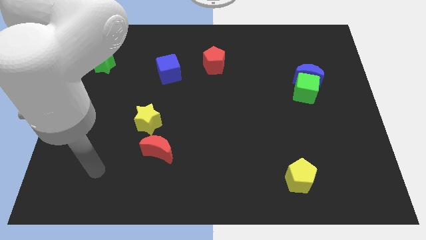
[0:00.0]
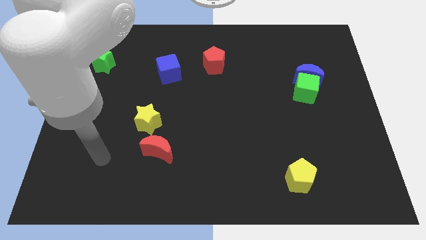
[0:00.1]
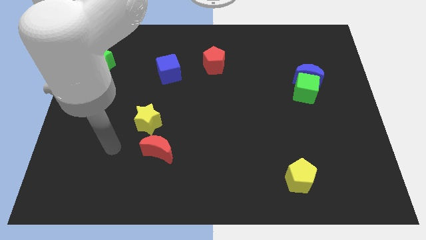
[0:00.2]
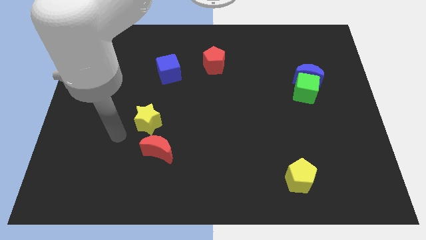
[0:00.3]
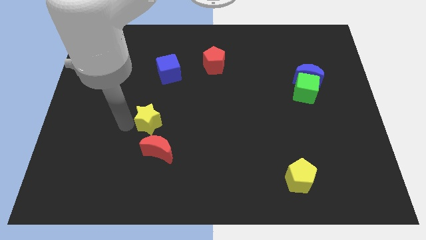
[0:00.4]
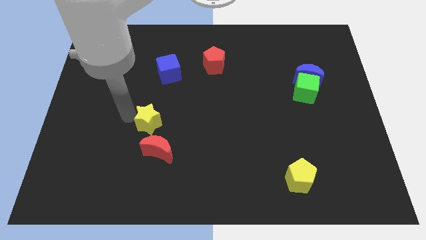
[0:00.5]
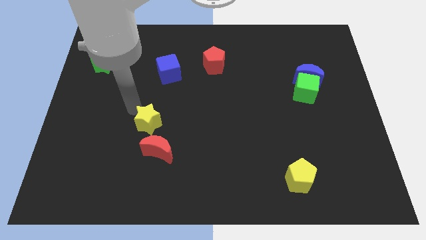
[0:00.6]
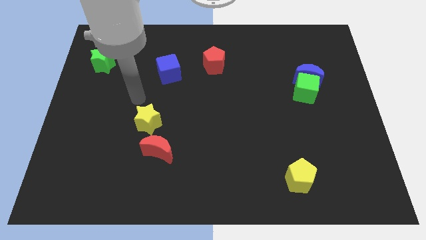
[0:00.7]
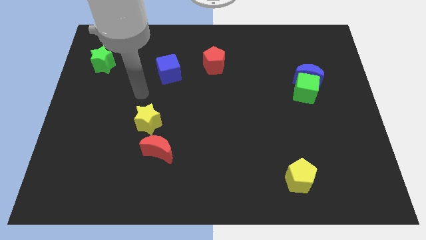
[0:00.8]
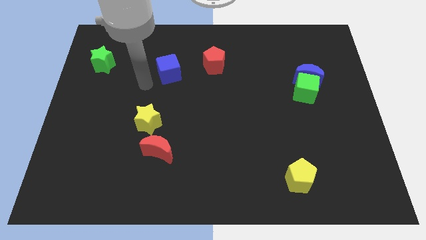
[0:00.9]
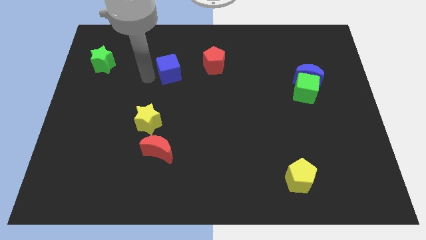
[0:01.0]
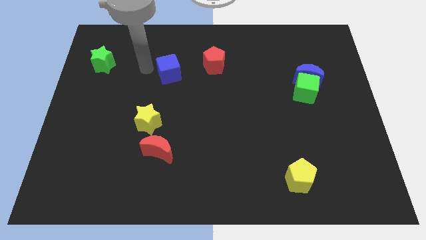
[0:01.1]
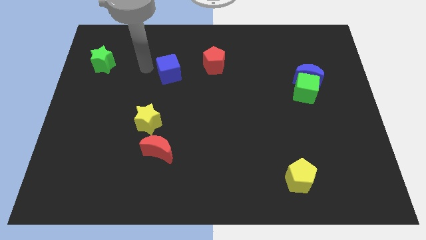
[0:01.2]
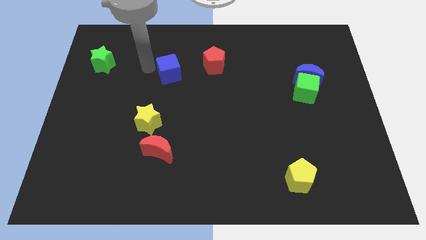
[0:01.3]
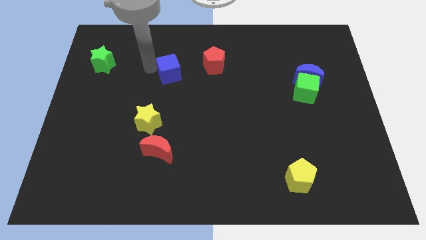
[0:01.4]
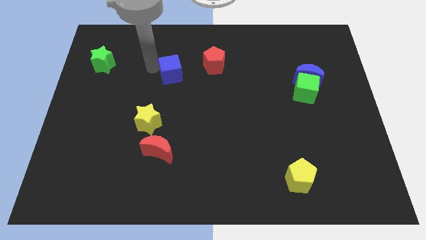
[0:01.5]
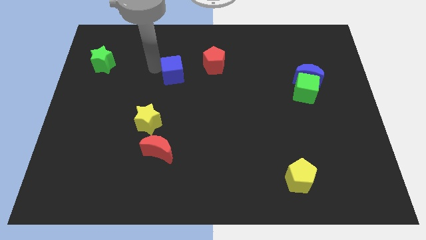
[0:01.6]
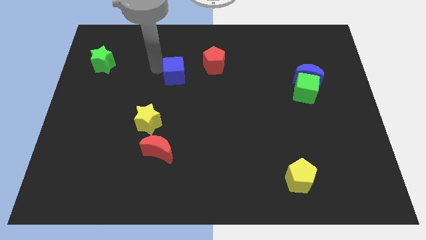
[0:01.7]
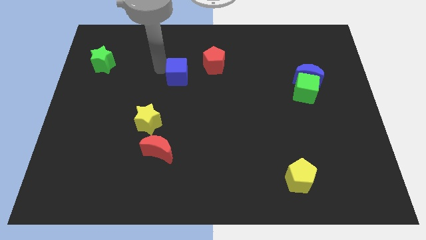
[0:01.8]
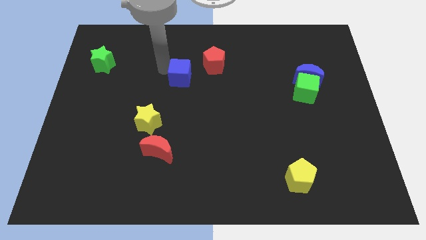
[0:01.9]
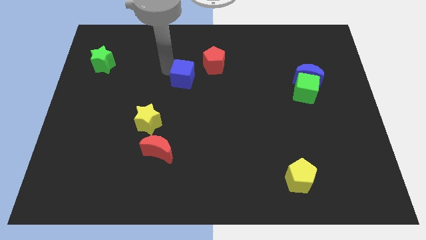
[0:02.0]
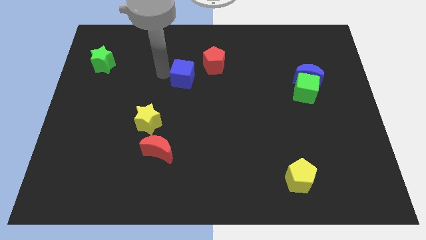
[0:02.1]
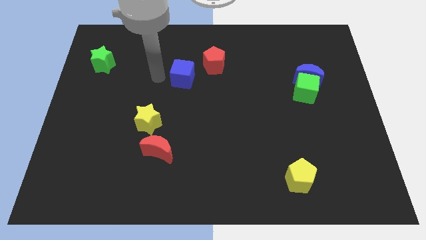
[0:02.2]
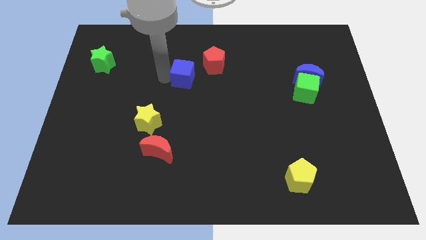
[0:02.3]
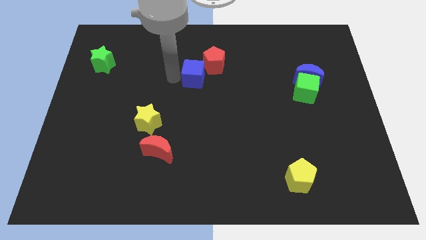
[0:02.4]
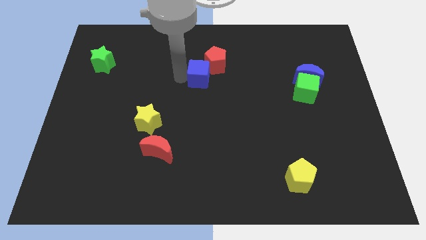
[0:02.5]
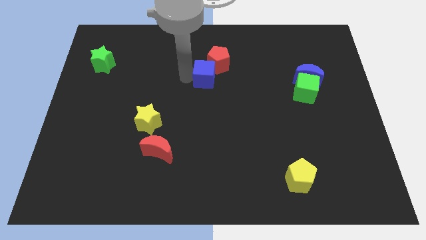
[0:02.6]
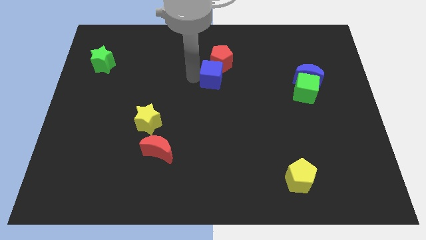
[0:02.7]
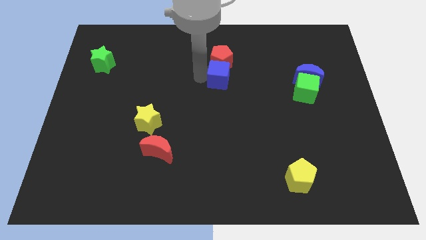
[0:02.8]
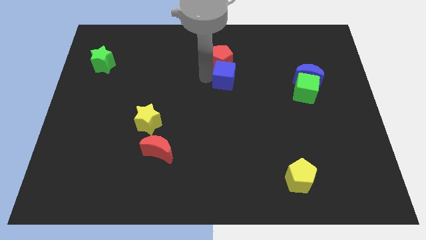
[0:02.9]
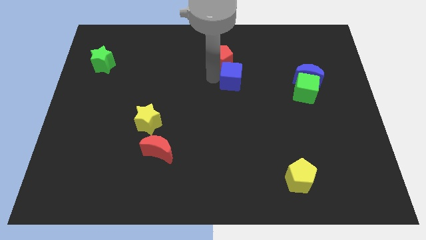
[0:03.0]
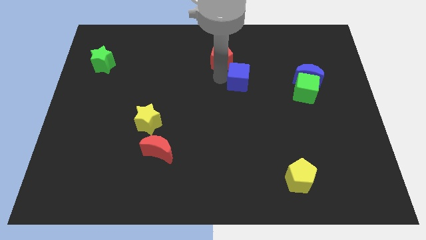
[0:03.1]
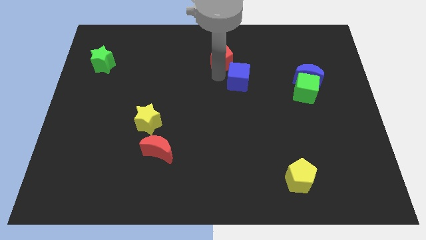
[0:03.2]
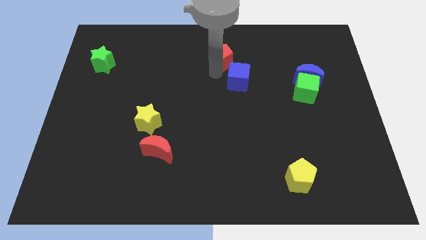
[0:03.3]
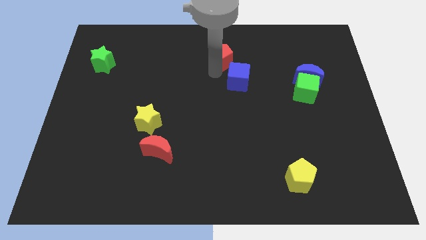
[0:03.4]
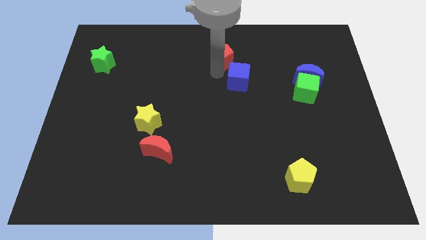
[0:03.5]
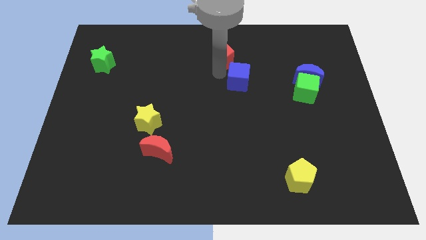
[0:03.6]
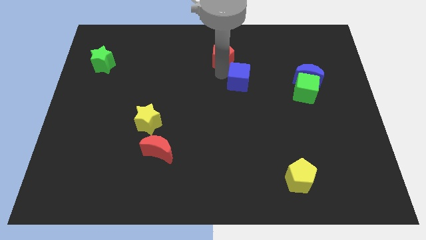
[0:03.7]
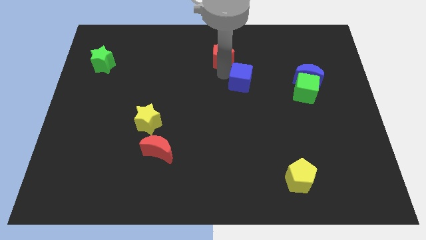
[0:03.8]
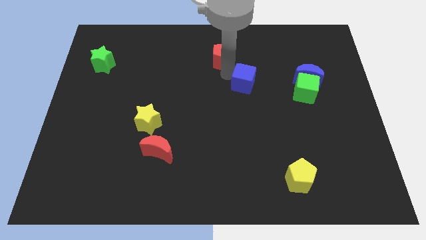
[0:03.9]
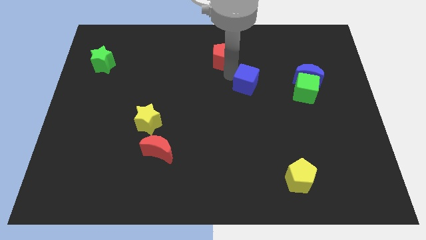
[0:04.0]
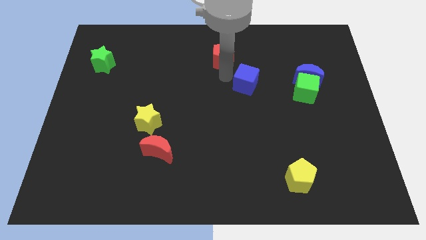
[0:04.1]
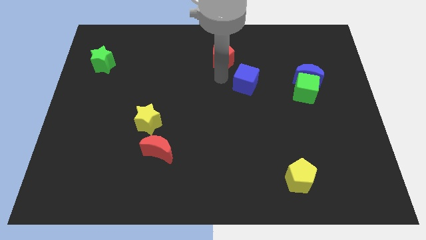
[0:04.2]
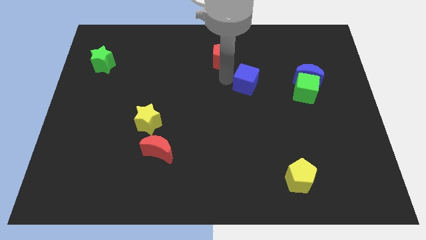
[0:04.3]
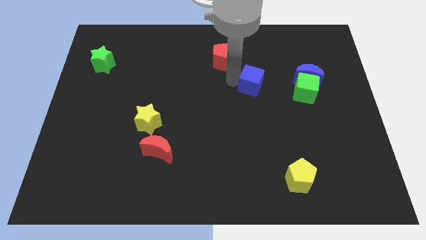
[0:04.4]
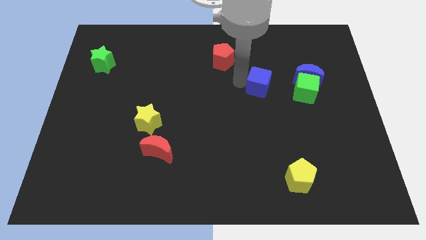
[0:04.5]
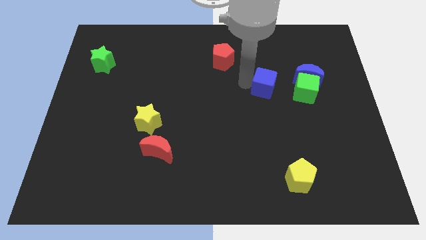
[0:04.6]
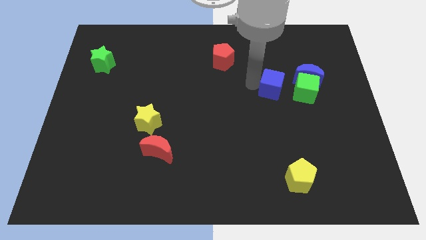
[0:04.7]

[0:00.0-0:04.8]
put the blue cube to the bottom left of the blue moon

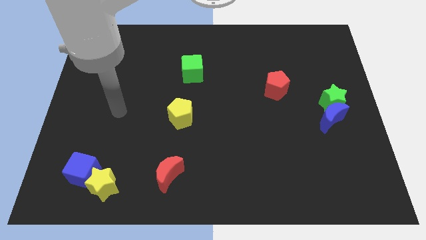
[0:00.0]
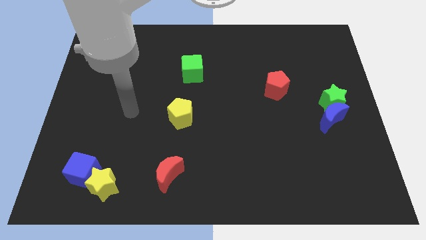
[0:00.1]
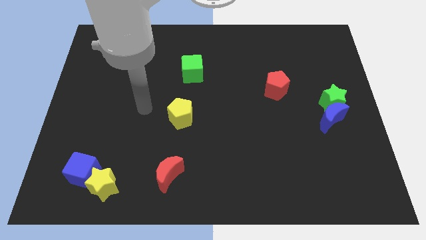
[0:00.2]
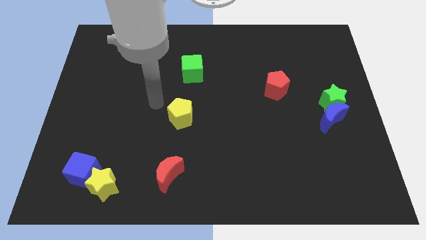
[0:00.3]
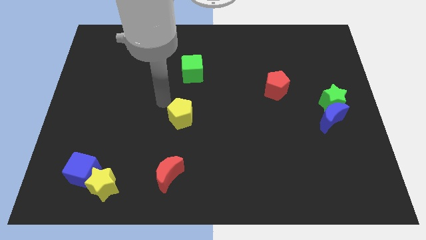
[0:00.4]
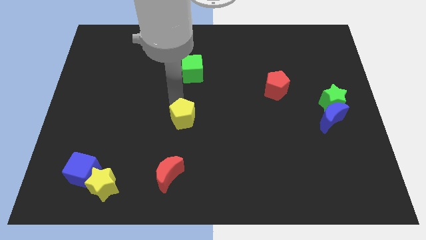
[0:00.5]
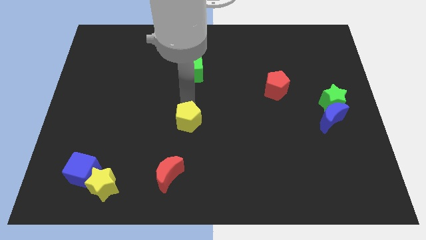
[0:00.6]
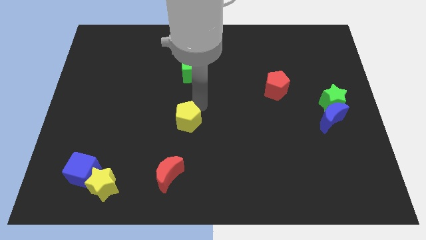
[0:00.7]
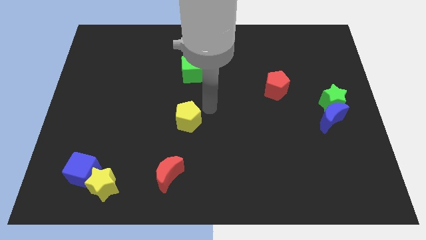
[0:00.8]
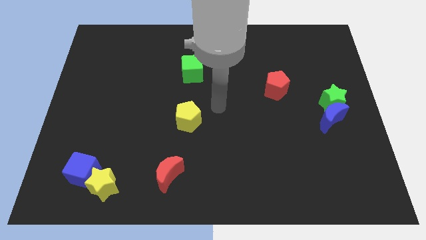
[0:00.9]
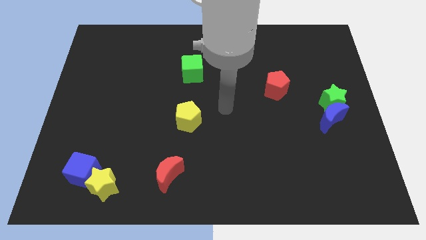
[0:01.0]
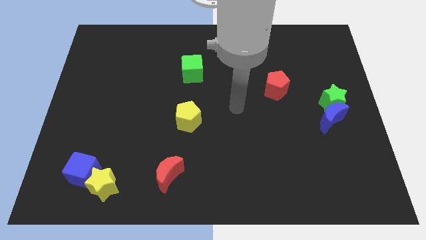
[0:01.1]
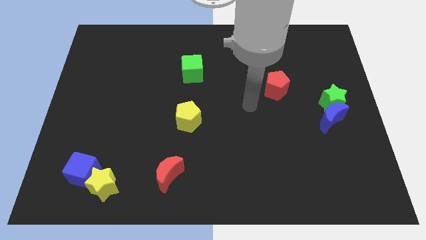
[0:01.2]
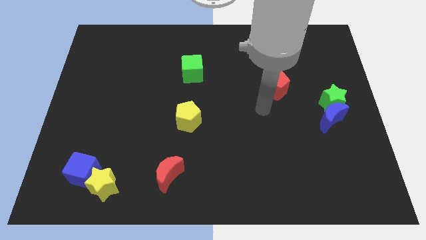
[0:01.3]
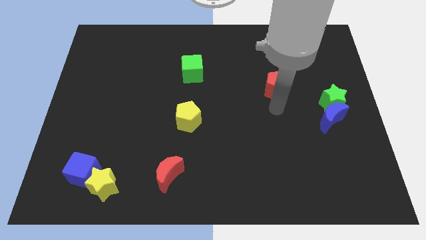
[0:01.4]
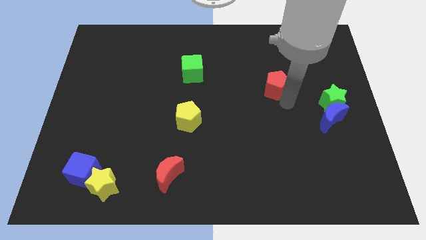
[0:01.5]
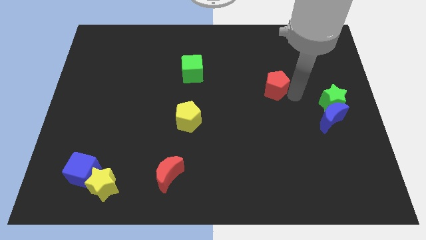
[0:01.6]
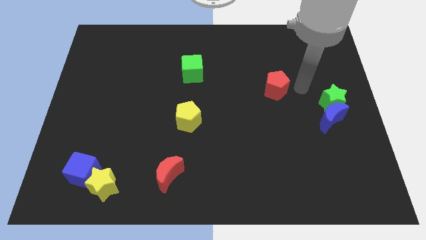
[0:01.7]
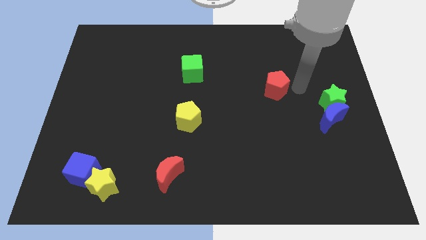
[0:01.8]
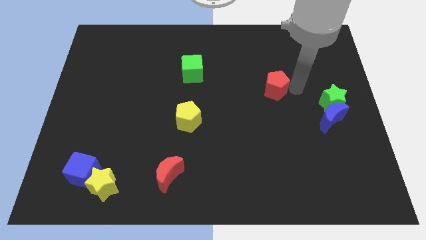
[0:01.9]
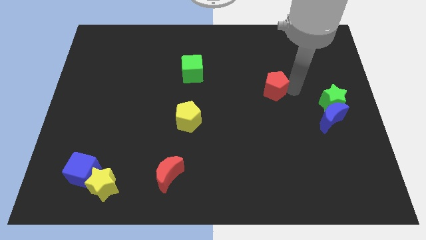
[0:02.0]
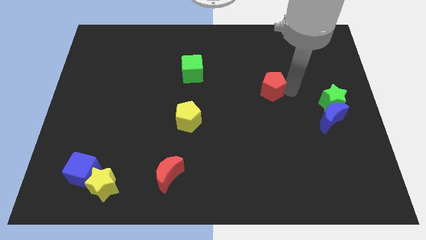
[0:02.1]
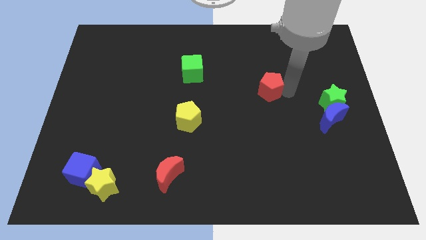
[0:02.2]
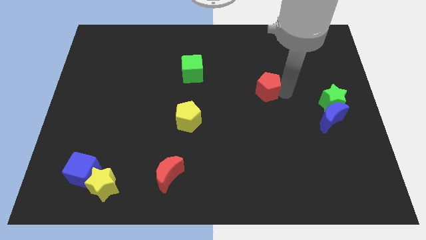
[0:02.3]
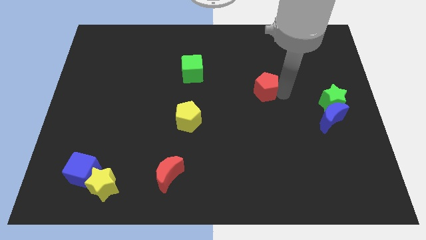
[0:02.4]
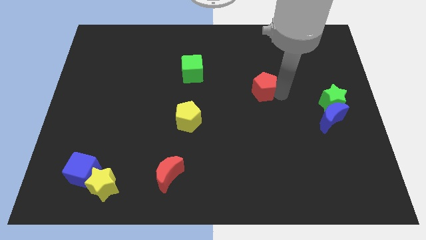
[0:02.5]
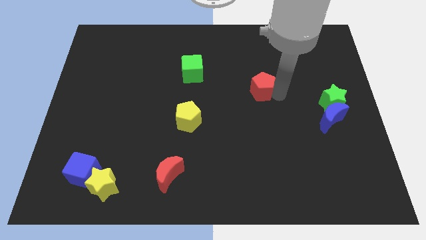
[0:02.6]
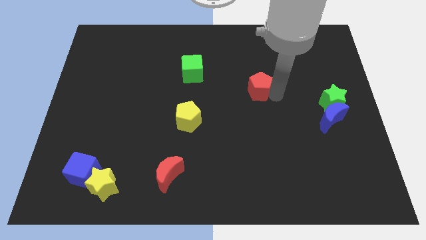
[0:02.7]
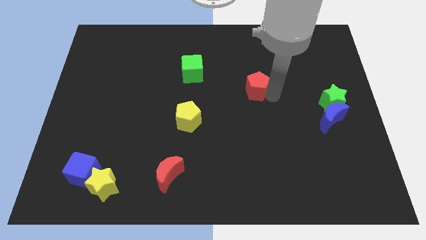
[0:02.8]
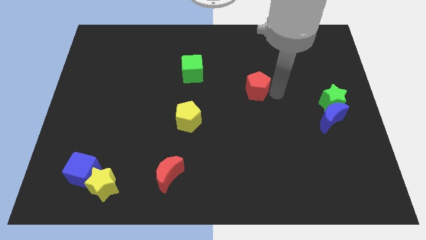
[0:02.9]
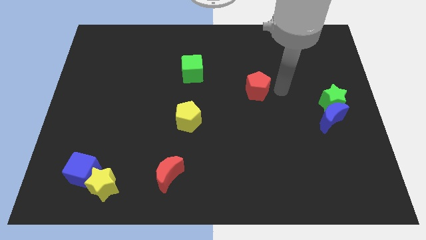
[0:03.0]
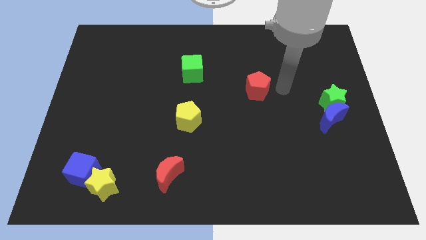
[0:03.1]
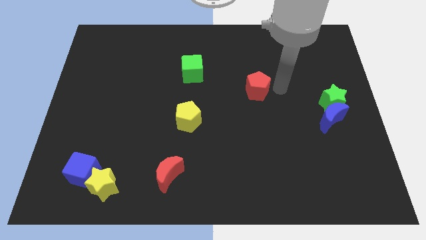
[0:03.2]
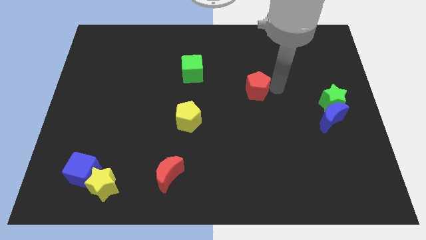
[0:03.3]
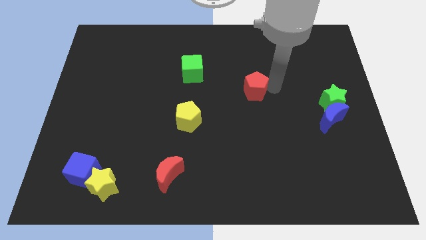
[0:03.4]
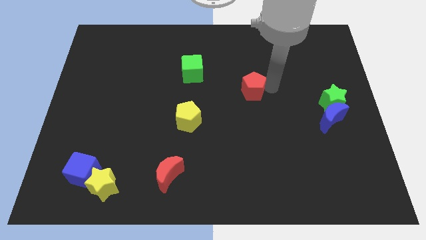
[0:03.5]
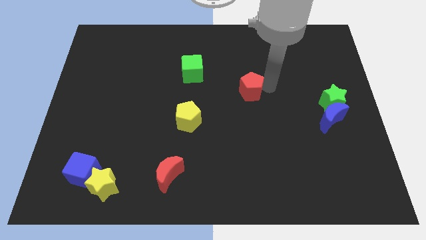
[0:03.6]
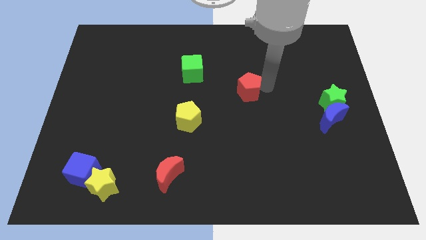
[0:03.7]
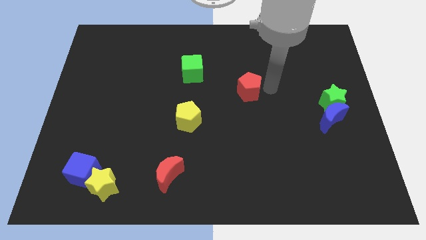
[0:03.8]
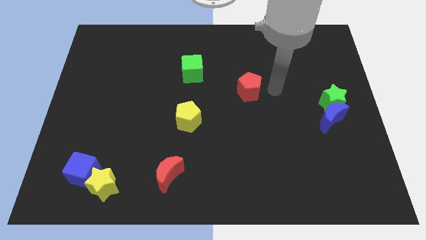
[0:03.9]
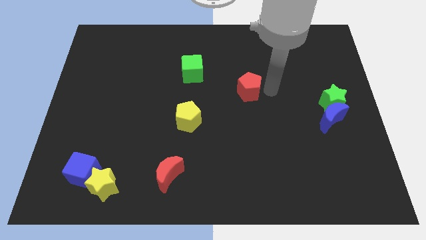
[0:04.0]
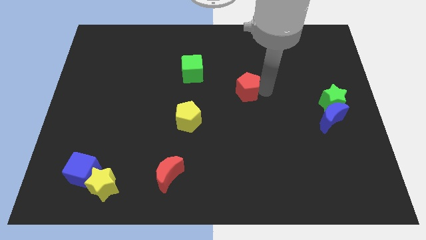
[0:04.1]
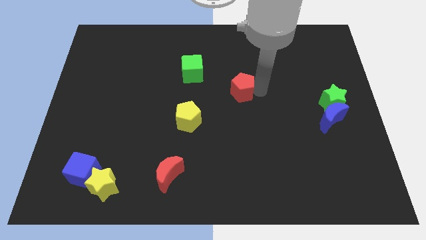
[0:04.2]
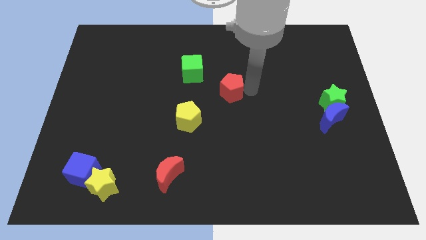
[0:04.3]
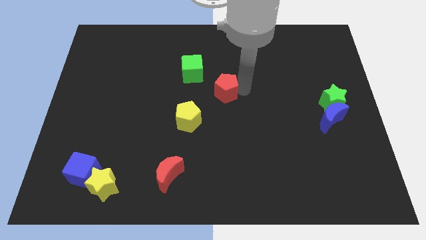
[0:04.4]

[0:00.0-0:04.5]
move the red pentagon diagonally up and to the right of the yellow pentagon
